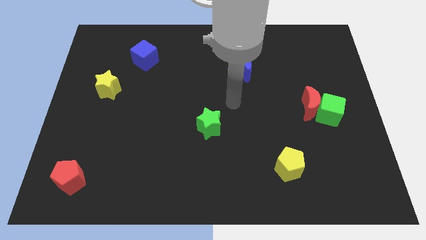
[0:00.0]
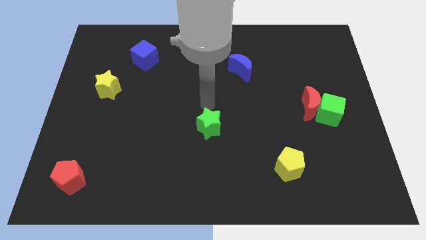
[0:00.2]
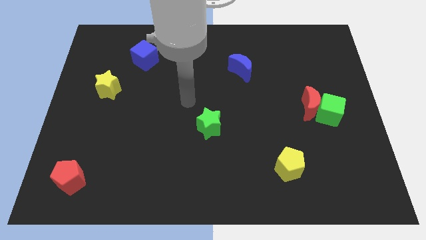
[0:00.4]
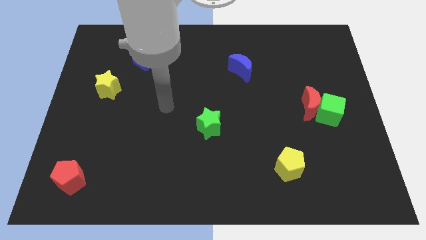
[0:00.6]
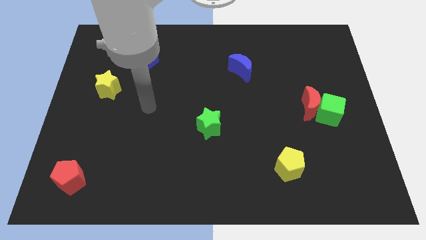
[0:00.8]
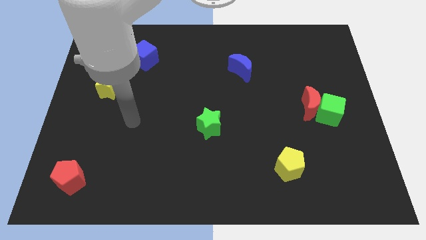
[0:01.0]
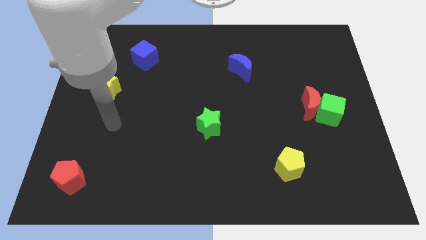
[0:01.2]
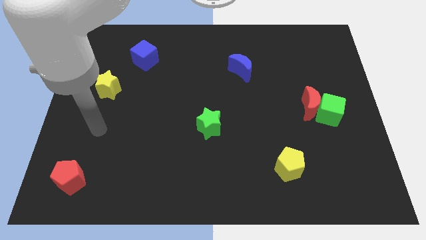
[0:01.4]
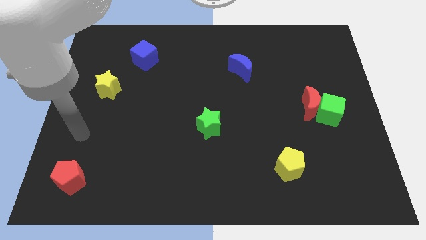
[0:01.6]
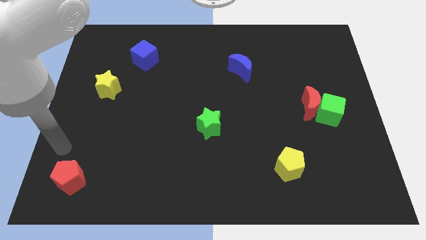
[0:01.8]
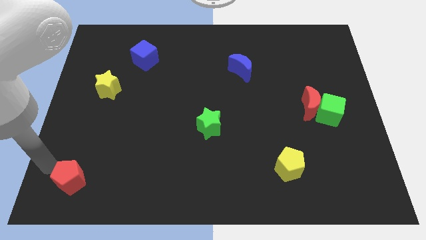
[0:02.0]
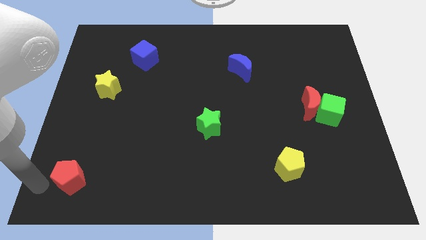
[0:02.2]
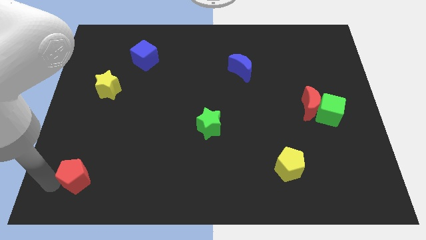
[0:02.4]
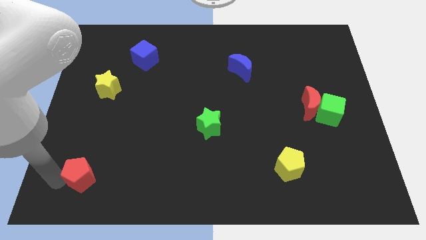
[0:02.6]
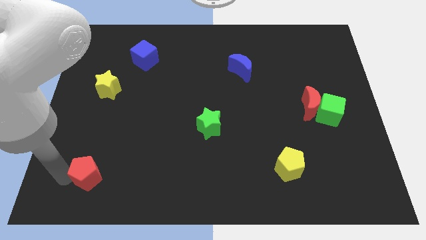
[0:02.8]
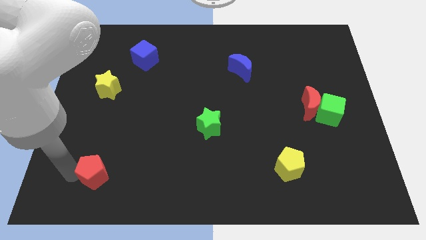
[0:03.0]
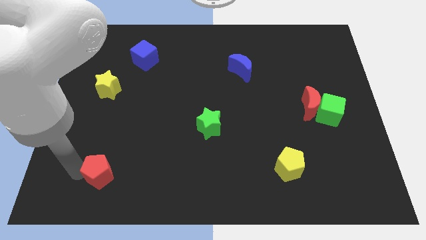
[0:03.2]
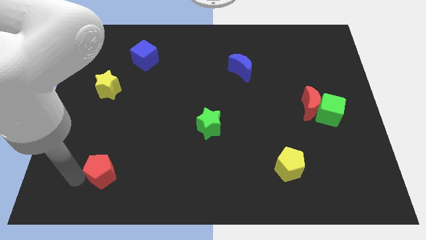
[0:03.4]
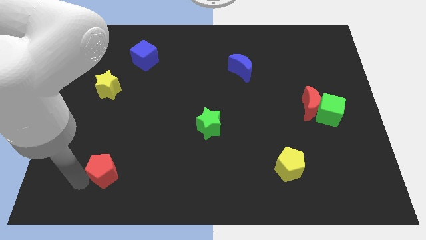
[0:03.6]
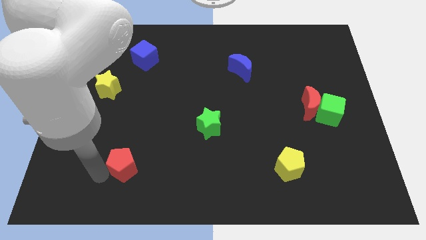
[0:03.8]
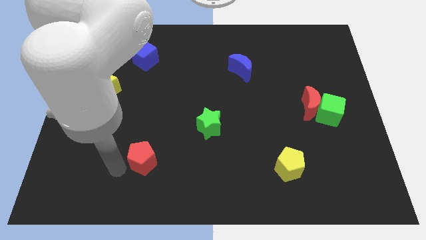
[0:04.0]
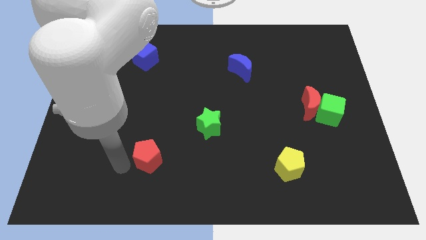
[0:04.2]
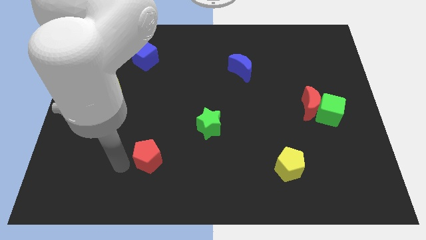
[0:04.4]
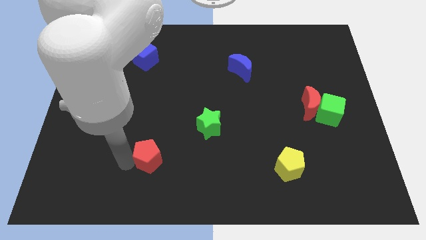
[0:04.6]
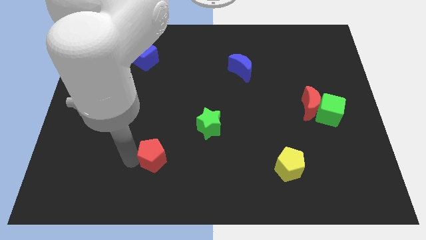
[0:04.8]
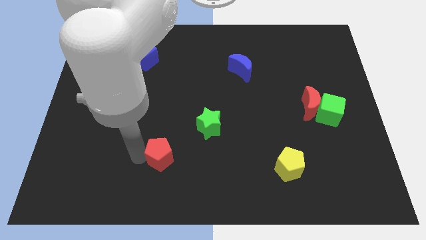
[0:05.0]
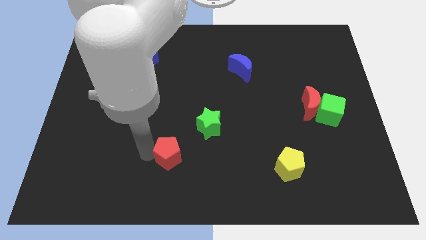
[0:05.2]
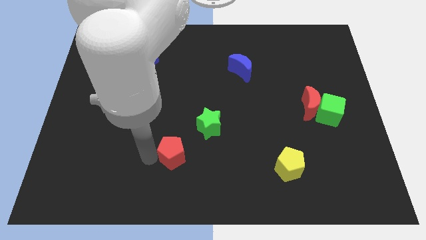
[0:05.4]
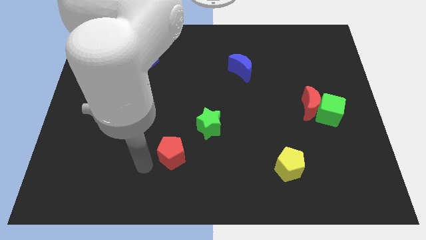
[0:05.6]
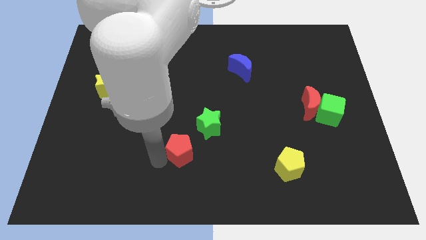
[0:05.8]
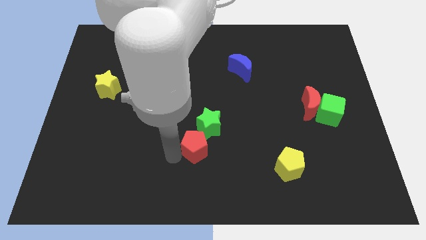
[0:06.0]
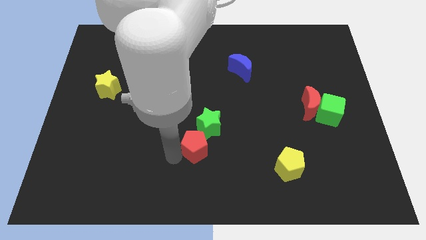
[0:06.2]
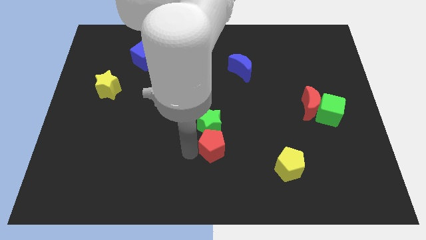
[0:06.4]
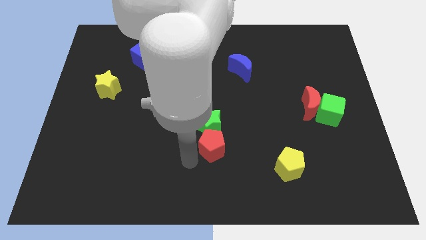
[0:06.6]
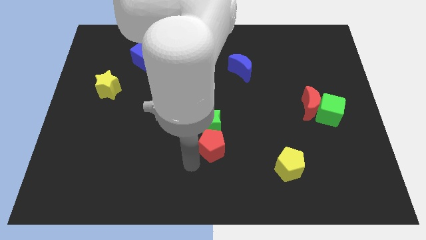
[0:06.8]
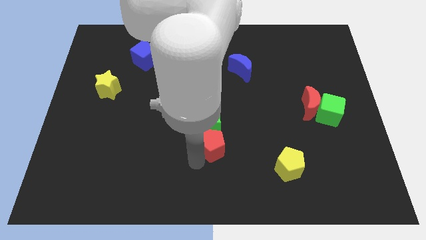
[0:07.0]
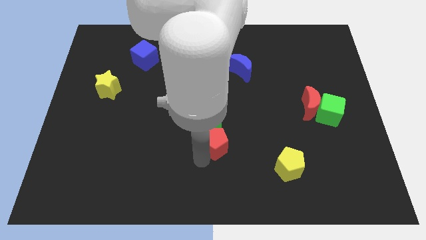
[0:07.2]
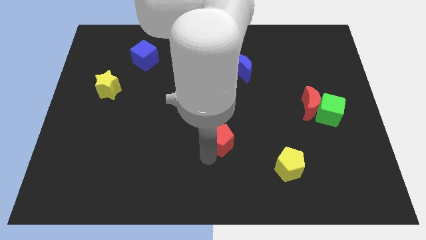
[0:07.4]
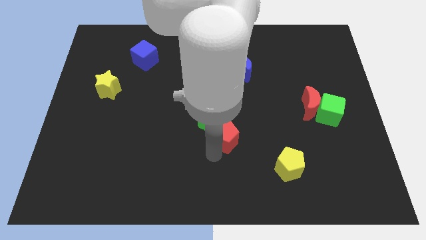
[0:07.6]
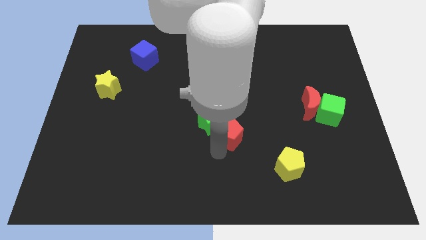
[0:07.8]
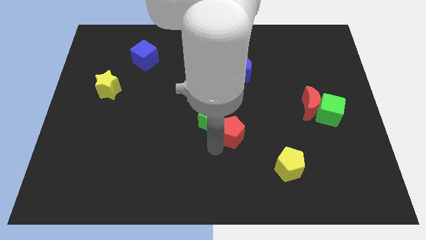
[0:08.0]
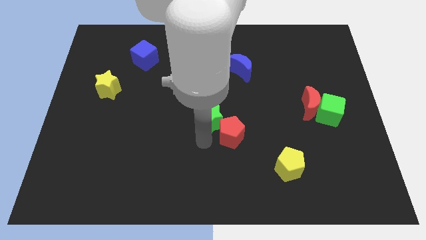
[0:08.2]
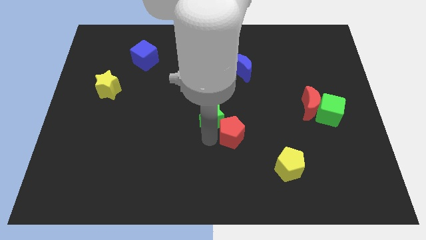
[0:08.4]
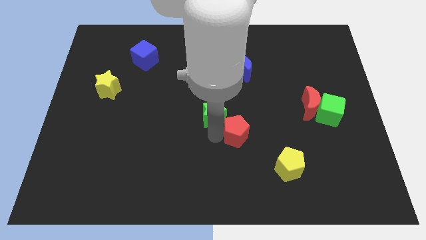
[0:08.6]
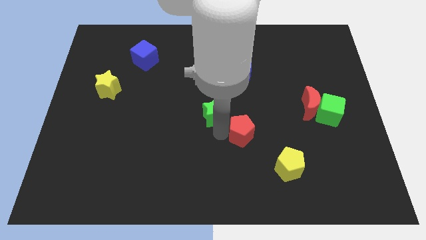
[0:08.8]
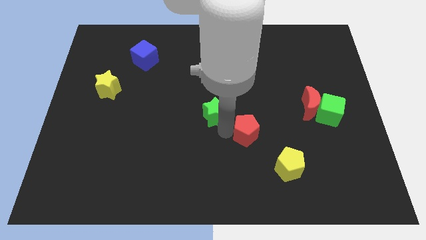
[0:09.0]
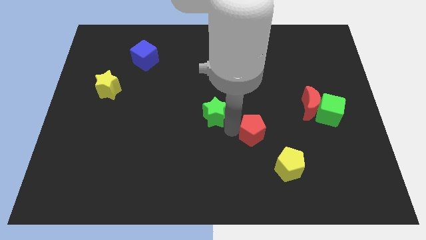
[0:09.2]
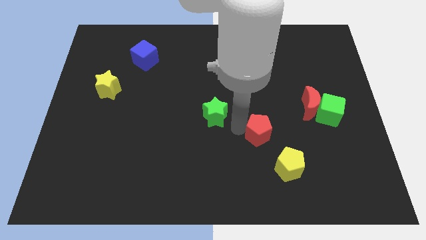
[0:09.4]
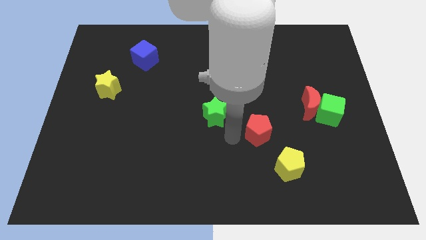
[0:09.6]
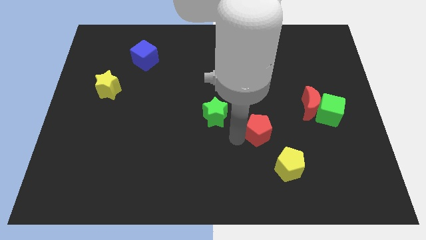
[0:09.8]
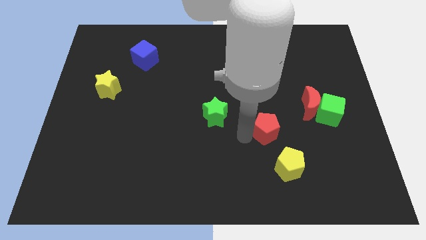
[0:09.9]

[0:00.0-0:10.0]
put the red pentagon above the yellow pentagon

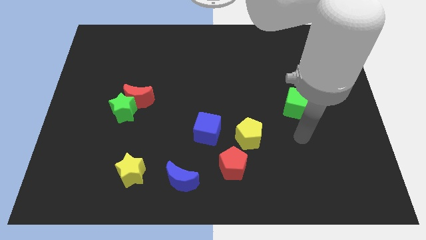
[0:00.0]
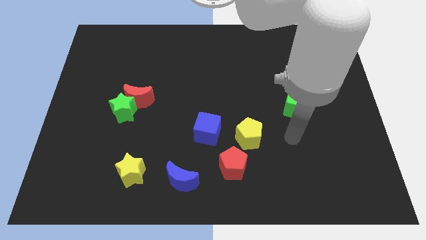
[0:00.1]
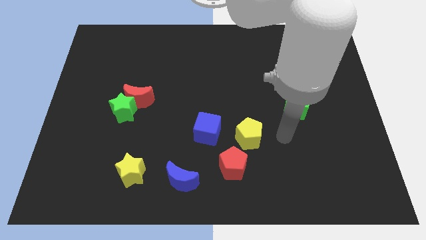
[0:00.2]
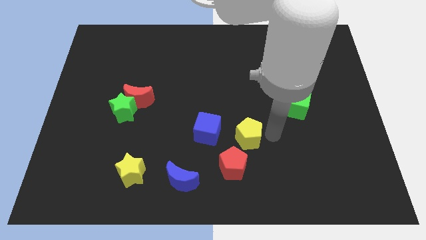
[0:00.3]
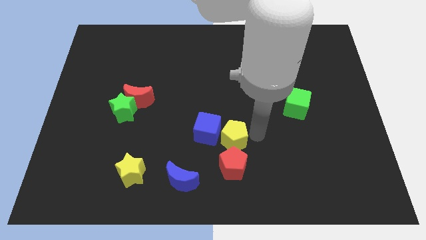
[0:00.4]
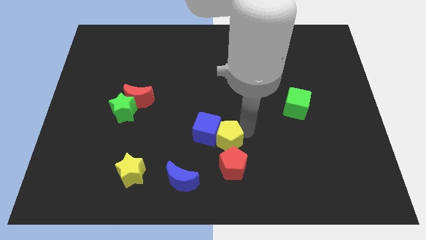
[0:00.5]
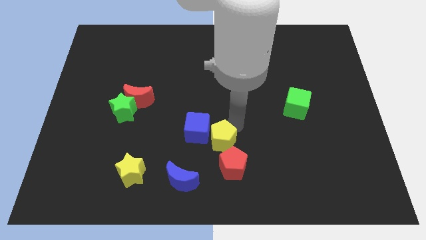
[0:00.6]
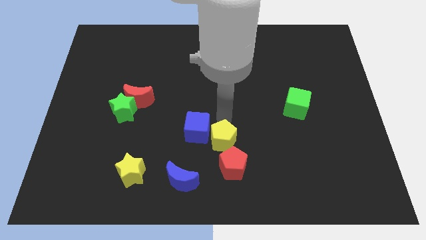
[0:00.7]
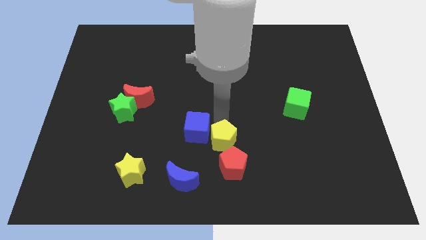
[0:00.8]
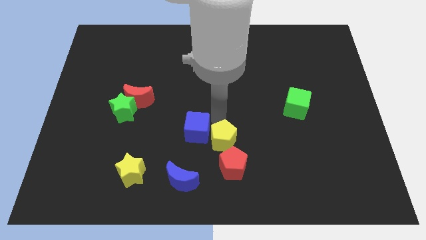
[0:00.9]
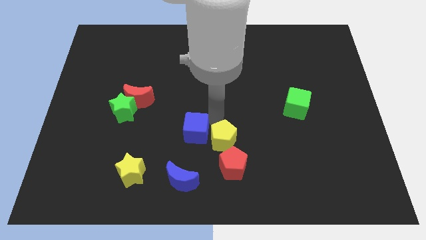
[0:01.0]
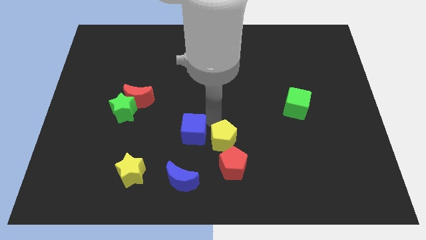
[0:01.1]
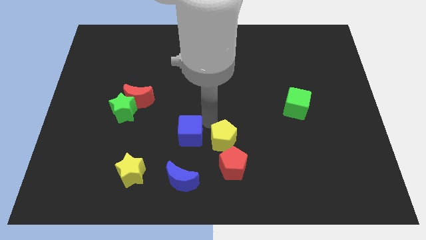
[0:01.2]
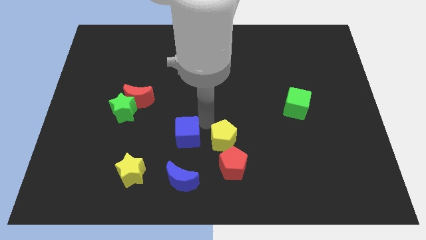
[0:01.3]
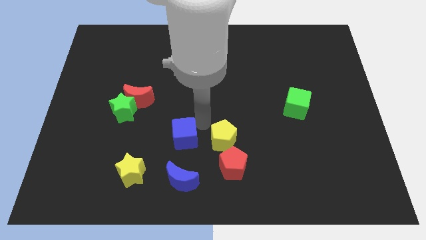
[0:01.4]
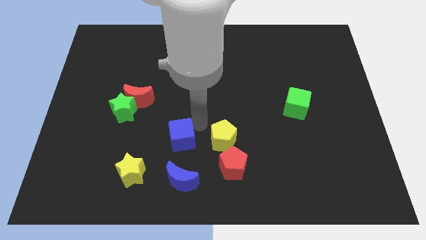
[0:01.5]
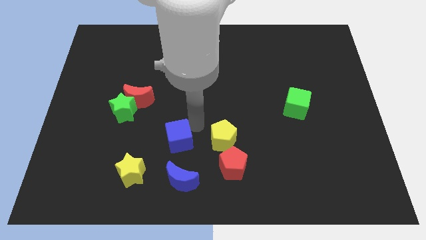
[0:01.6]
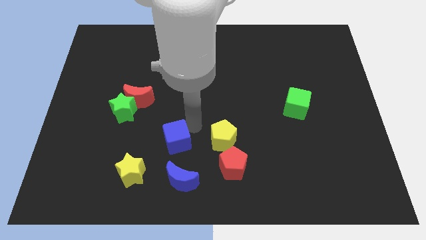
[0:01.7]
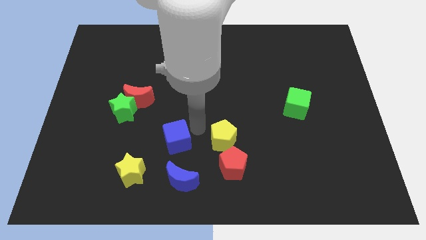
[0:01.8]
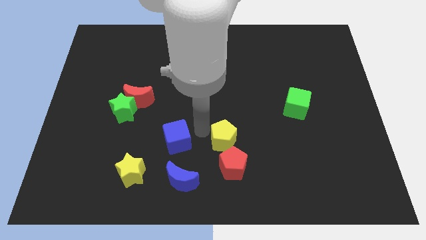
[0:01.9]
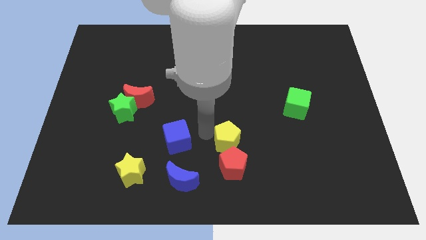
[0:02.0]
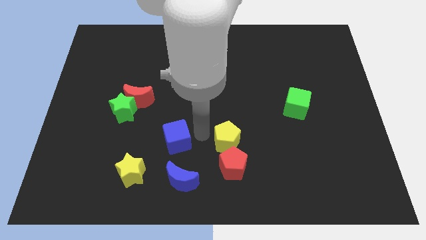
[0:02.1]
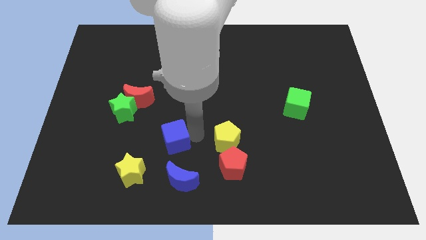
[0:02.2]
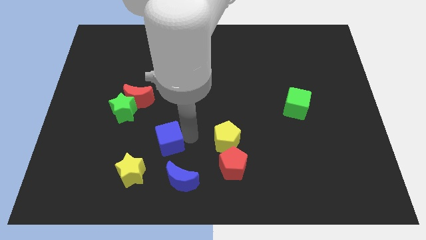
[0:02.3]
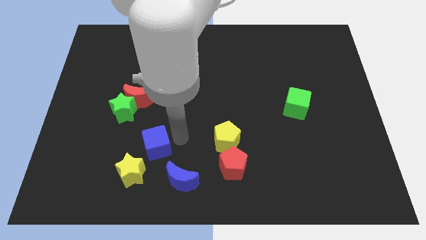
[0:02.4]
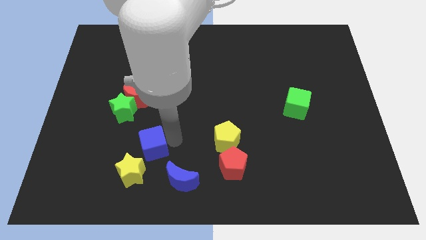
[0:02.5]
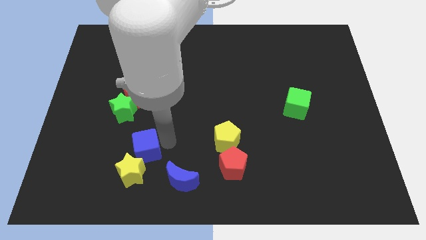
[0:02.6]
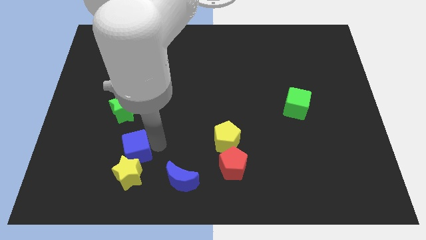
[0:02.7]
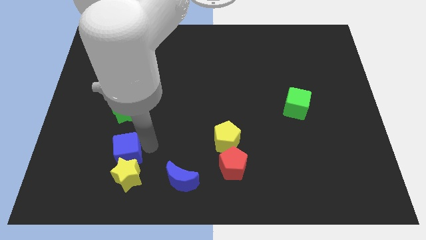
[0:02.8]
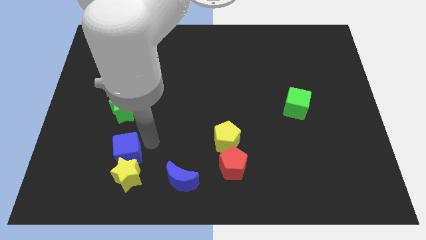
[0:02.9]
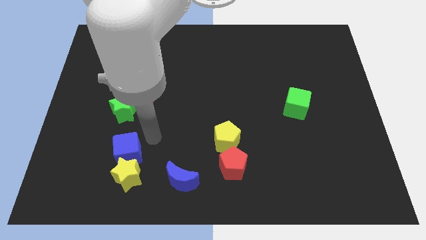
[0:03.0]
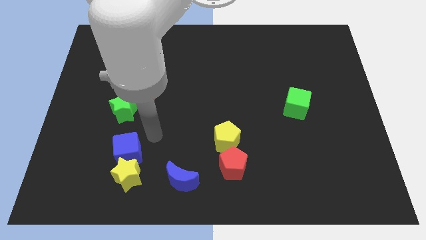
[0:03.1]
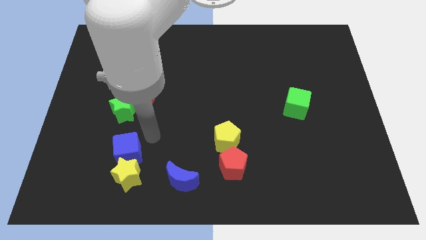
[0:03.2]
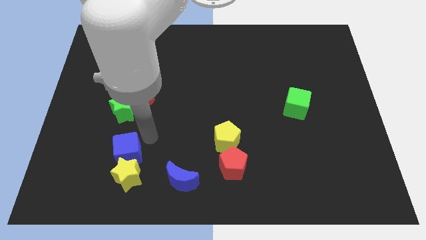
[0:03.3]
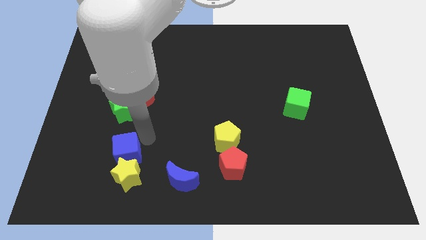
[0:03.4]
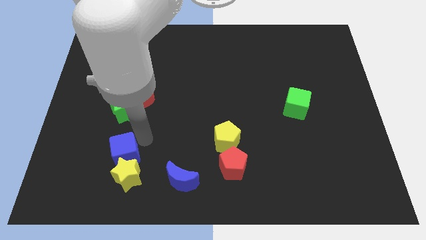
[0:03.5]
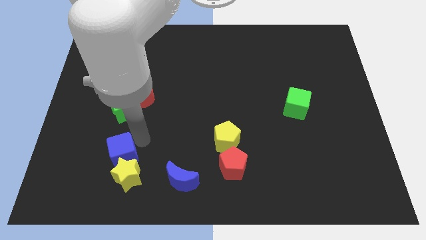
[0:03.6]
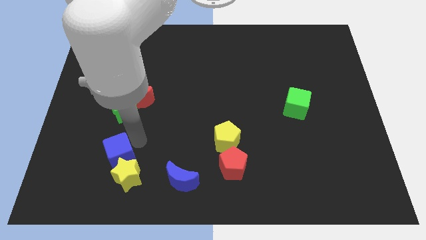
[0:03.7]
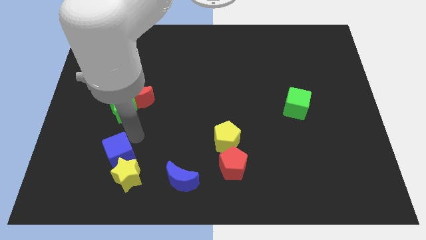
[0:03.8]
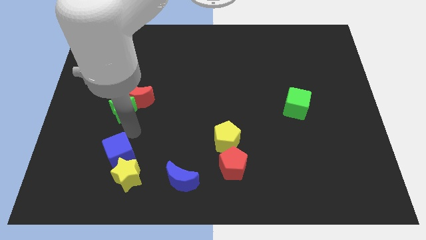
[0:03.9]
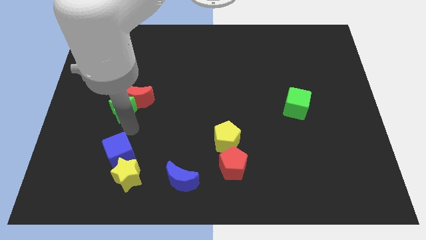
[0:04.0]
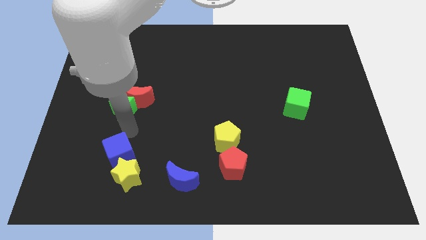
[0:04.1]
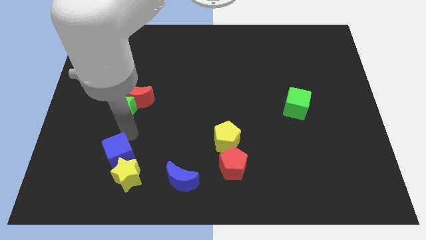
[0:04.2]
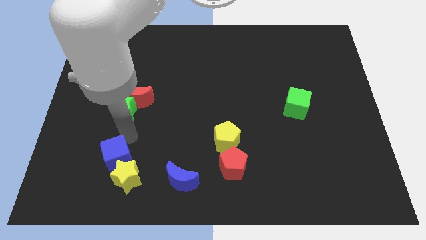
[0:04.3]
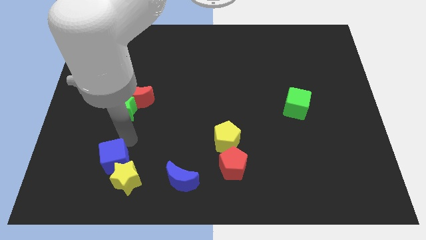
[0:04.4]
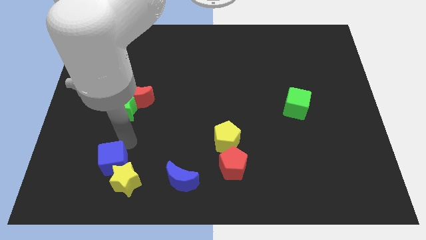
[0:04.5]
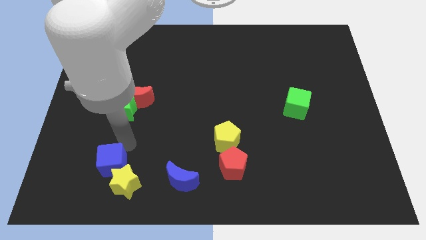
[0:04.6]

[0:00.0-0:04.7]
move the blue cube just left of the blue moon
